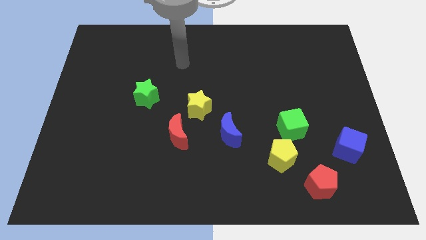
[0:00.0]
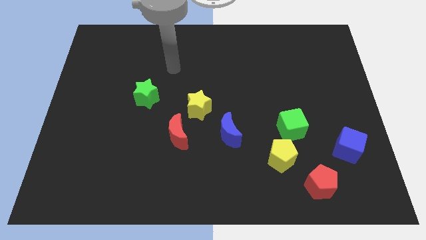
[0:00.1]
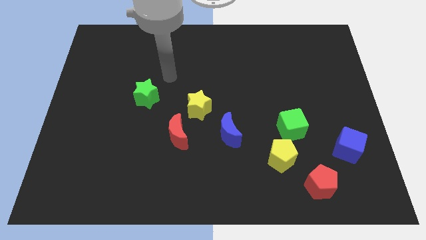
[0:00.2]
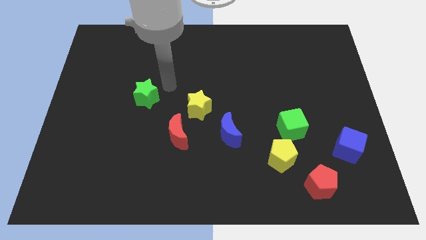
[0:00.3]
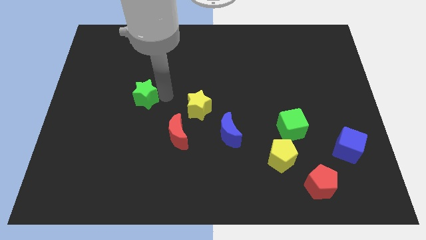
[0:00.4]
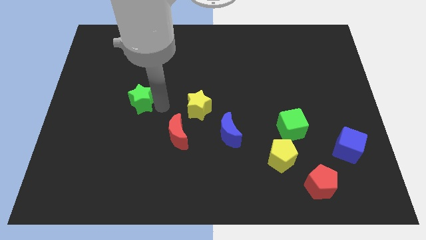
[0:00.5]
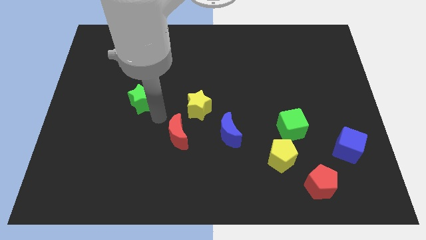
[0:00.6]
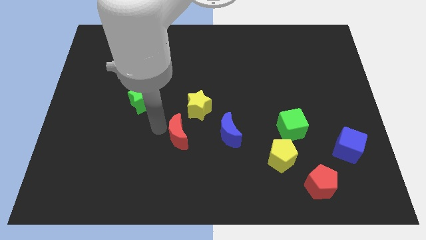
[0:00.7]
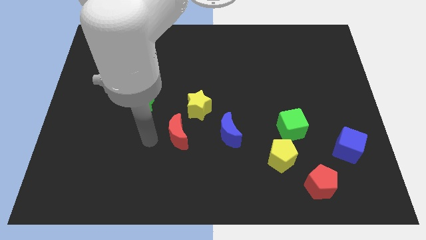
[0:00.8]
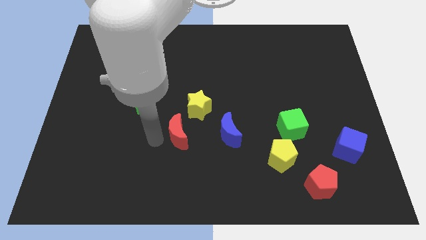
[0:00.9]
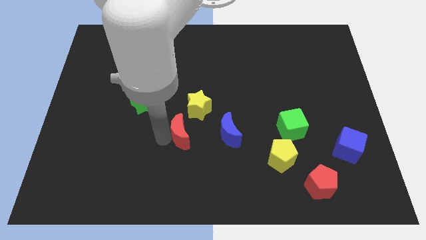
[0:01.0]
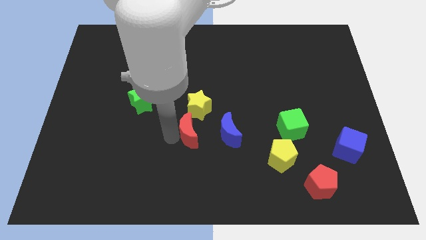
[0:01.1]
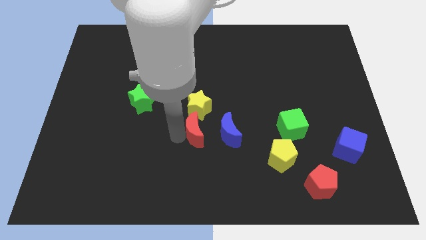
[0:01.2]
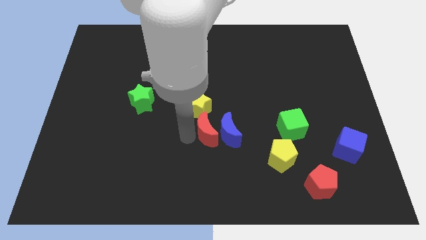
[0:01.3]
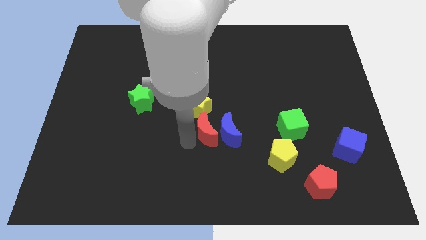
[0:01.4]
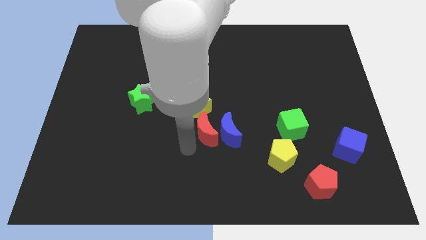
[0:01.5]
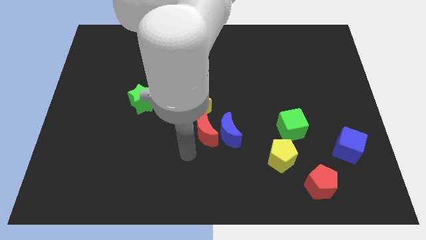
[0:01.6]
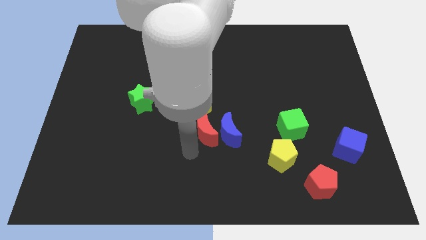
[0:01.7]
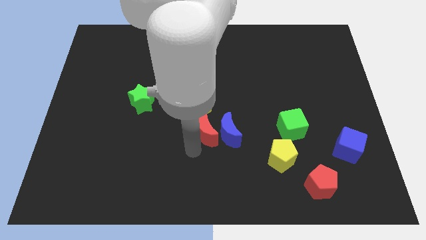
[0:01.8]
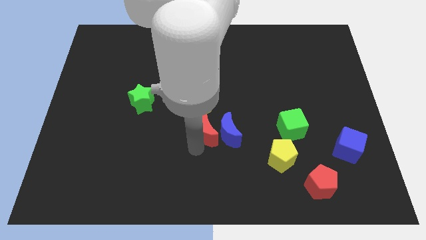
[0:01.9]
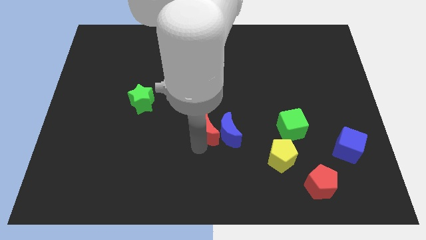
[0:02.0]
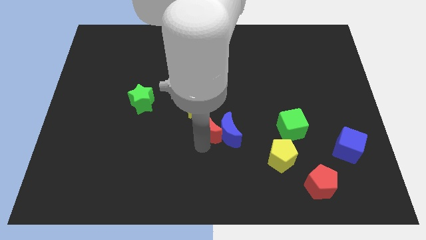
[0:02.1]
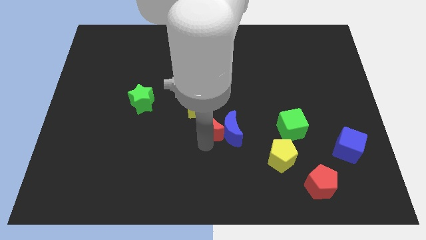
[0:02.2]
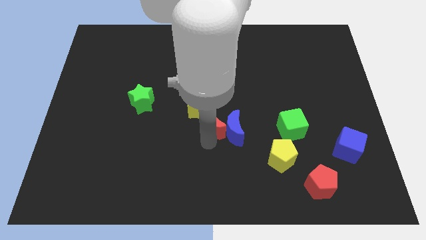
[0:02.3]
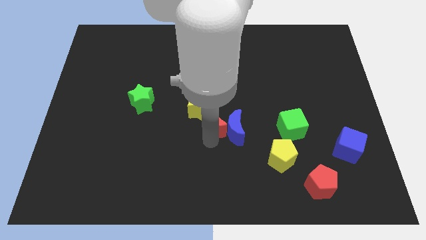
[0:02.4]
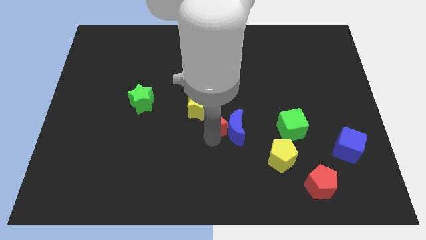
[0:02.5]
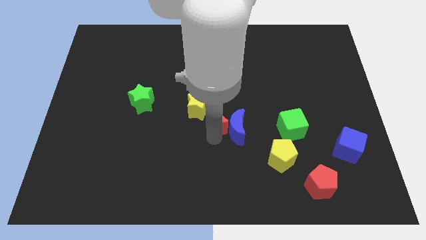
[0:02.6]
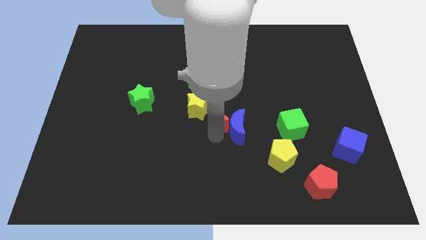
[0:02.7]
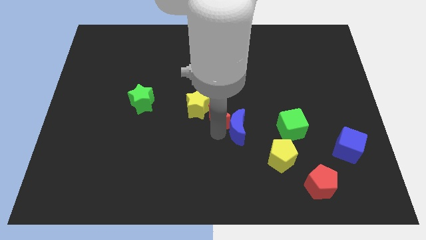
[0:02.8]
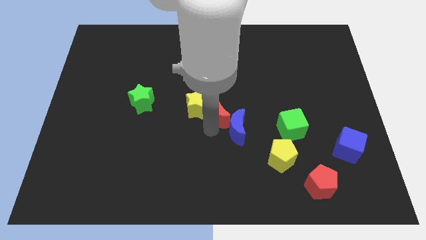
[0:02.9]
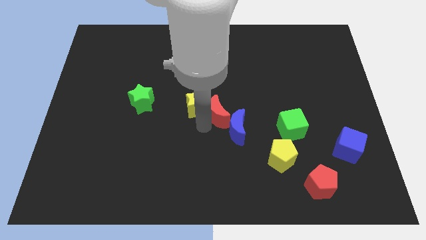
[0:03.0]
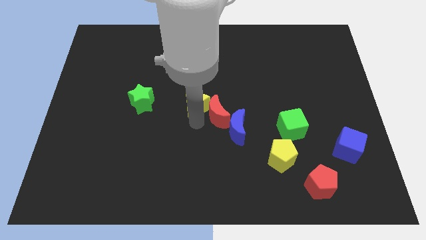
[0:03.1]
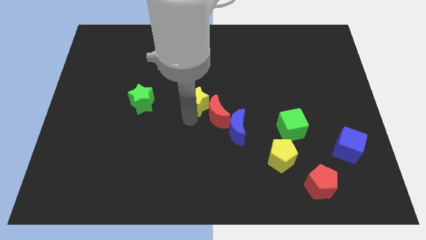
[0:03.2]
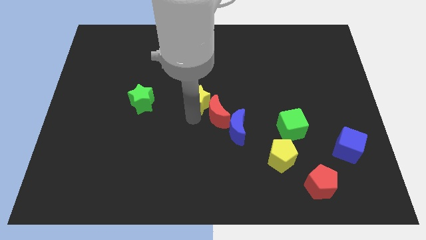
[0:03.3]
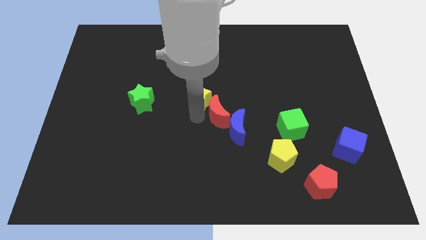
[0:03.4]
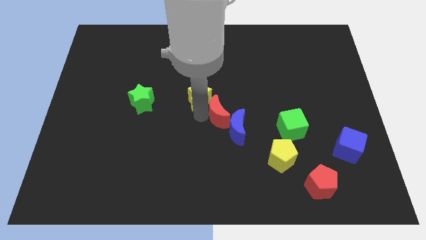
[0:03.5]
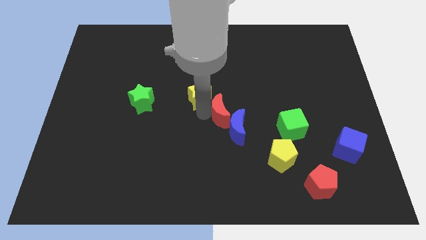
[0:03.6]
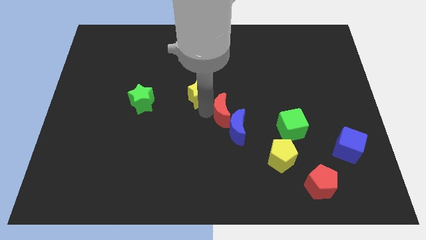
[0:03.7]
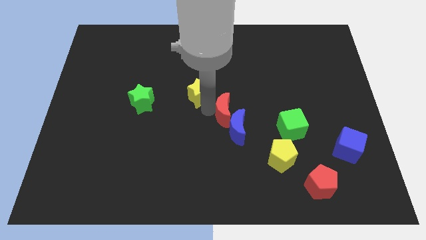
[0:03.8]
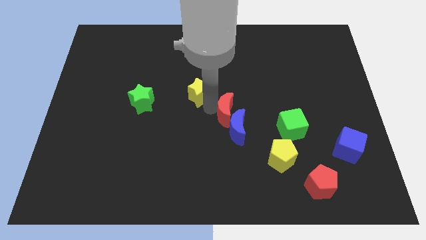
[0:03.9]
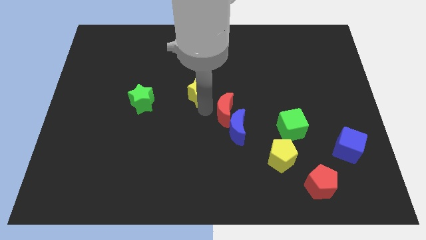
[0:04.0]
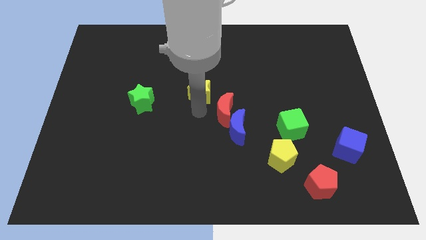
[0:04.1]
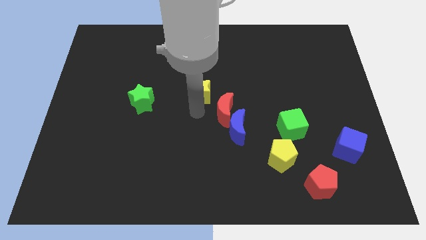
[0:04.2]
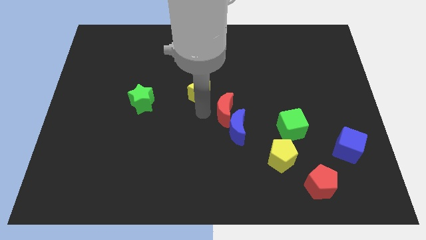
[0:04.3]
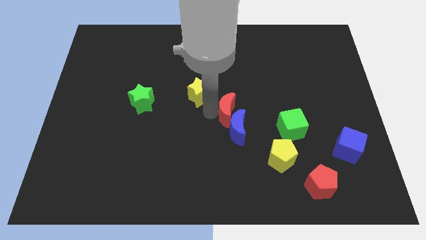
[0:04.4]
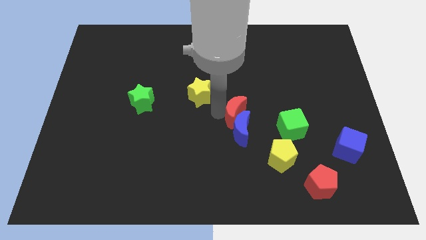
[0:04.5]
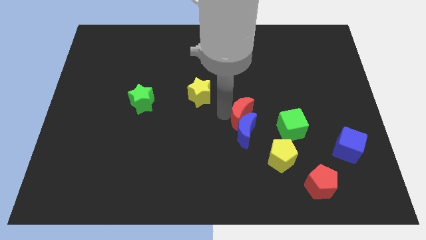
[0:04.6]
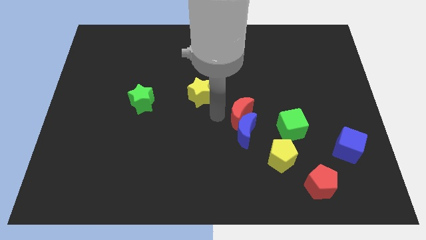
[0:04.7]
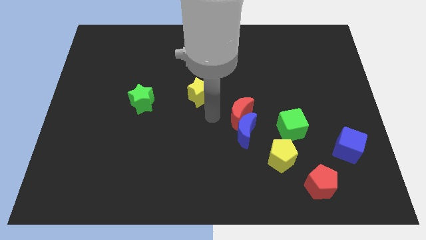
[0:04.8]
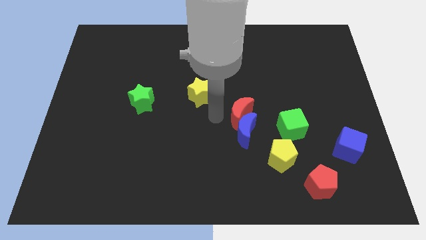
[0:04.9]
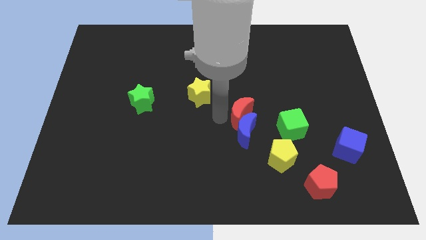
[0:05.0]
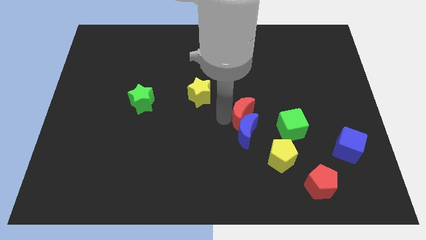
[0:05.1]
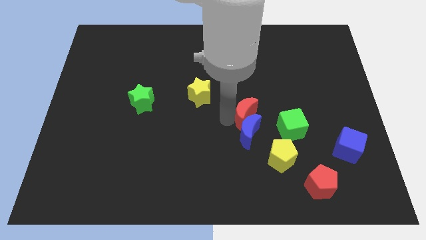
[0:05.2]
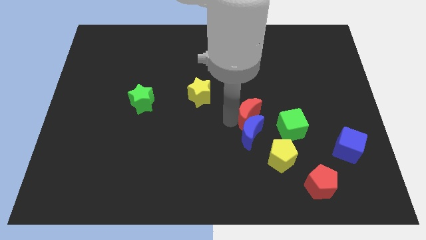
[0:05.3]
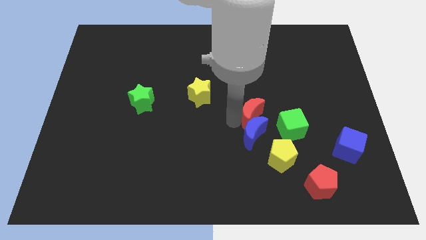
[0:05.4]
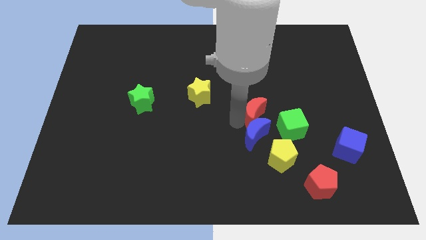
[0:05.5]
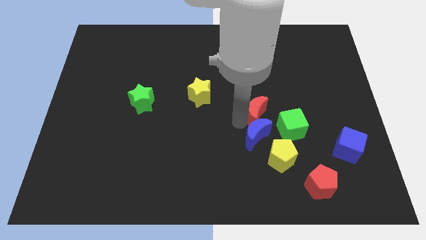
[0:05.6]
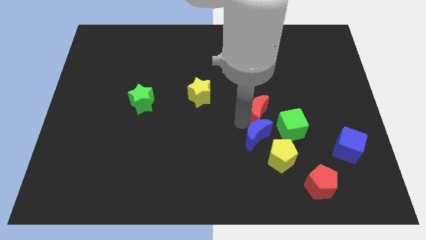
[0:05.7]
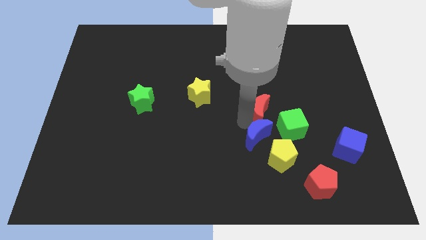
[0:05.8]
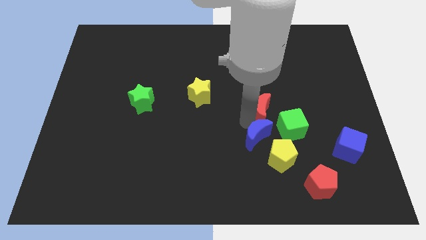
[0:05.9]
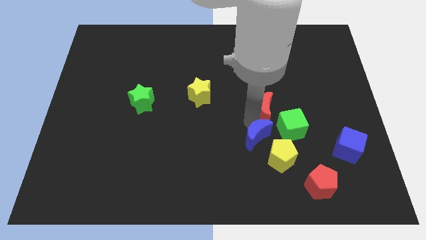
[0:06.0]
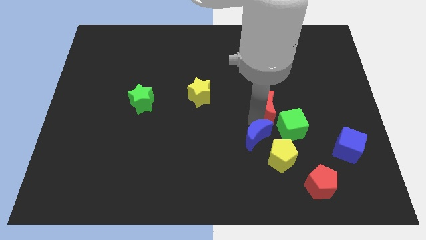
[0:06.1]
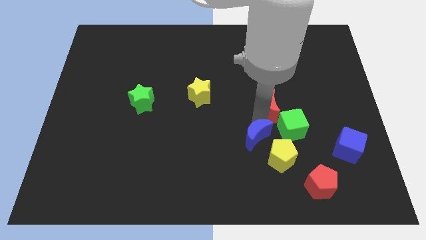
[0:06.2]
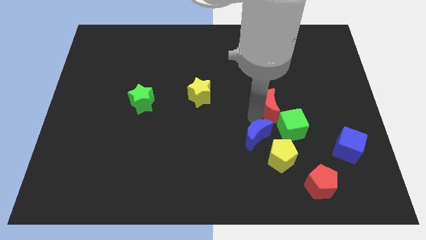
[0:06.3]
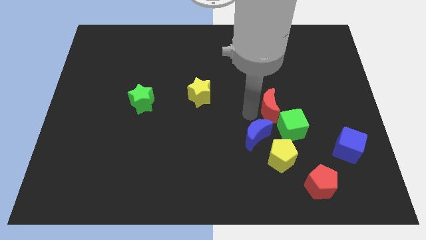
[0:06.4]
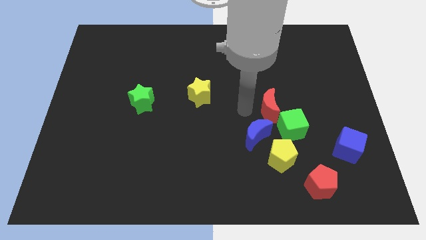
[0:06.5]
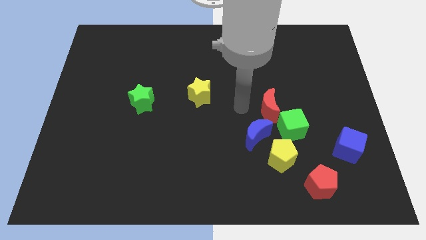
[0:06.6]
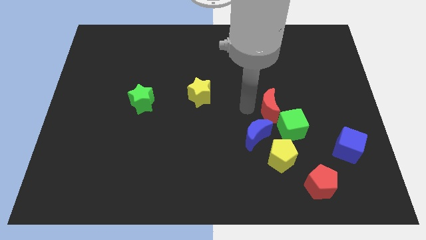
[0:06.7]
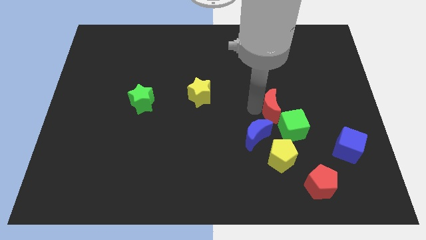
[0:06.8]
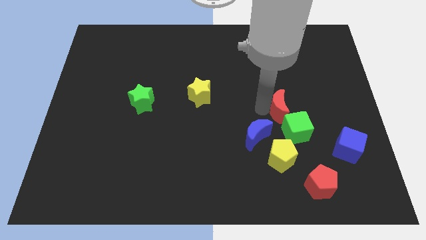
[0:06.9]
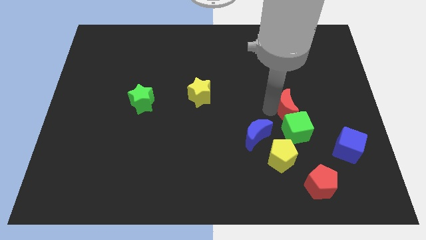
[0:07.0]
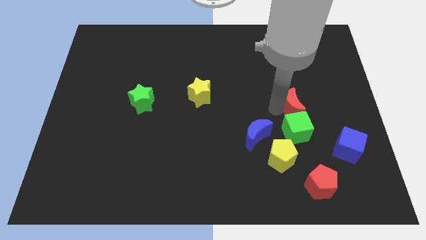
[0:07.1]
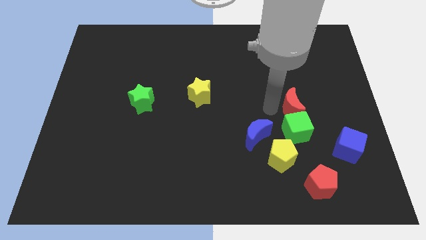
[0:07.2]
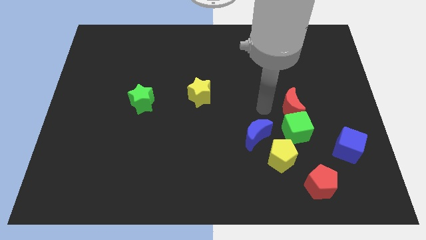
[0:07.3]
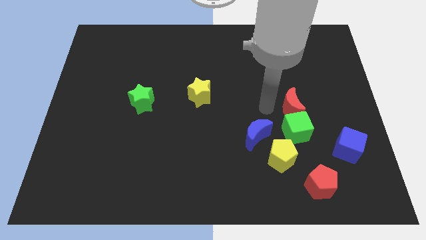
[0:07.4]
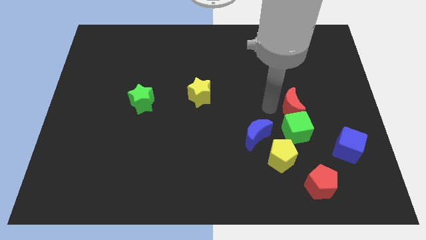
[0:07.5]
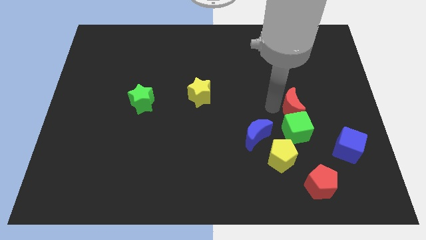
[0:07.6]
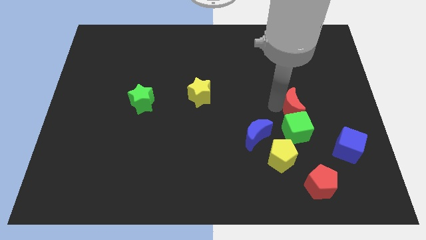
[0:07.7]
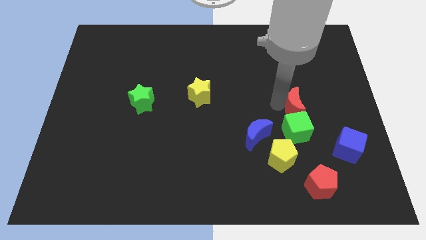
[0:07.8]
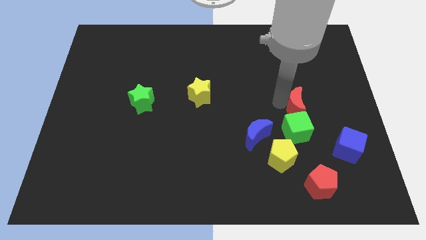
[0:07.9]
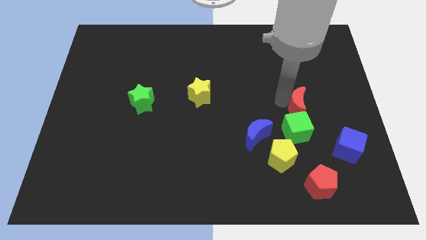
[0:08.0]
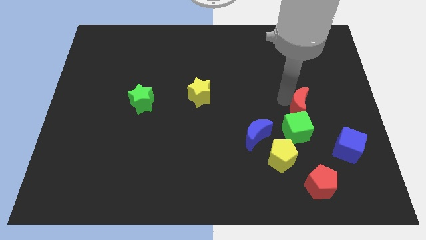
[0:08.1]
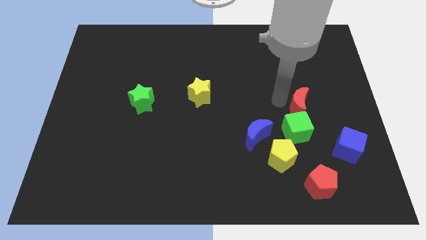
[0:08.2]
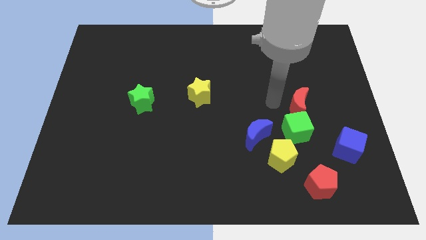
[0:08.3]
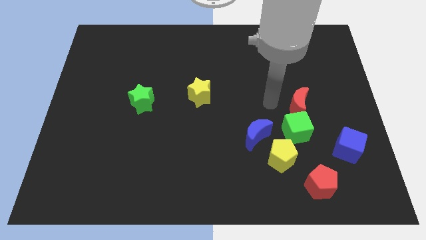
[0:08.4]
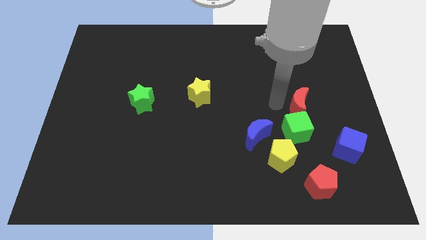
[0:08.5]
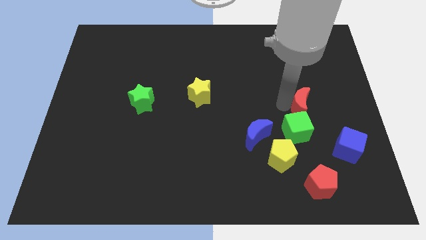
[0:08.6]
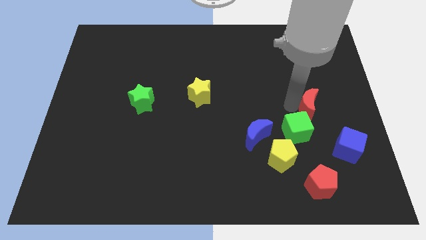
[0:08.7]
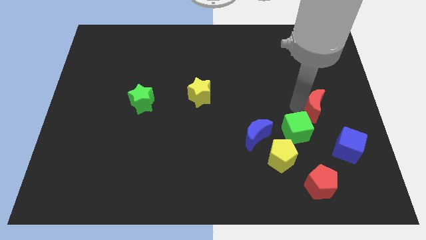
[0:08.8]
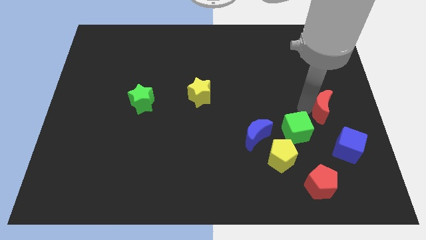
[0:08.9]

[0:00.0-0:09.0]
slide the red moon to the right side
